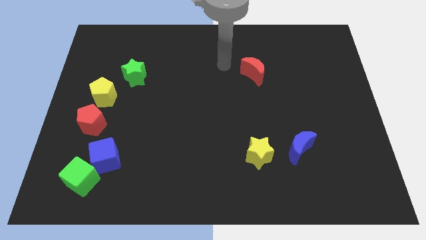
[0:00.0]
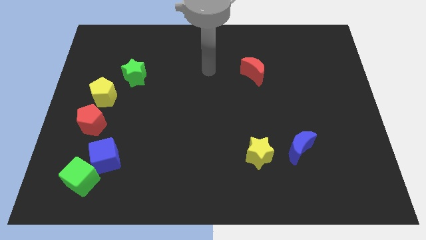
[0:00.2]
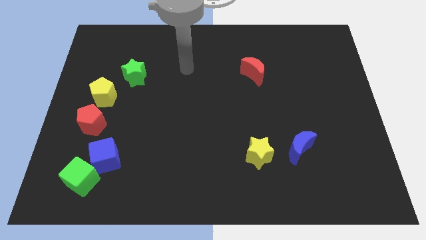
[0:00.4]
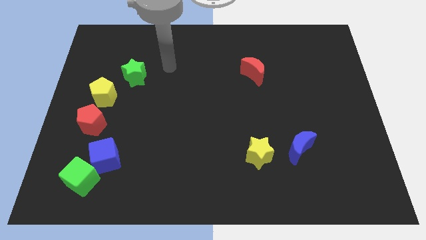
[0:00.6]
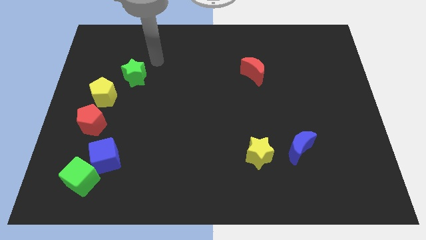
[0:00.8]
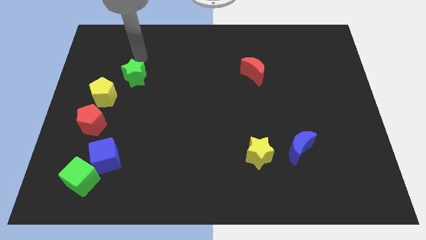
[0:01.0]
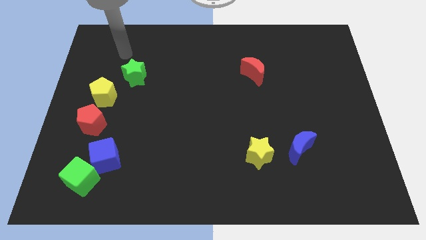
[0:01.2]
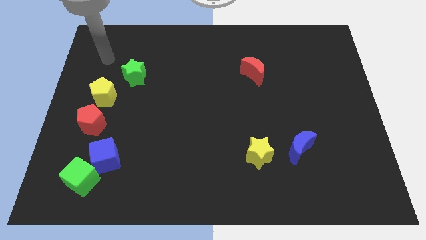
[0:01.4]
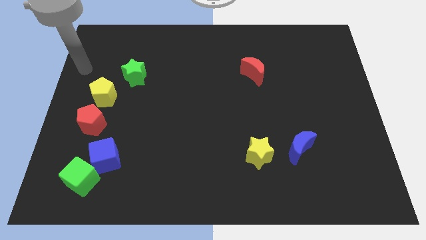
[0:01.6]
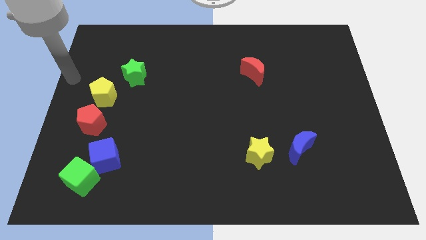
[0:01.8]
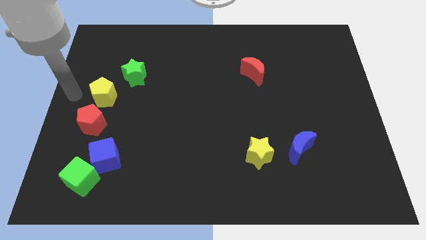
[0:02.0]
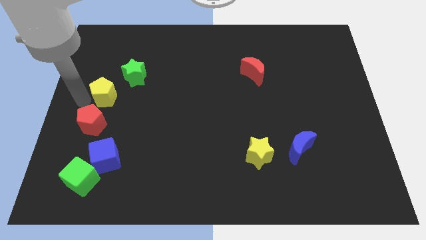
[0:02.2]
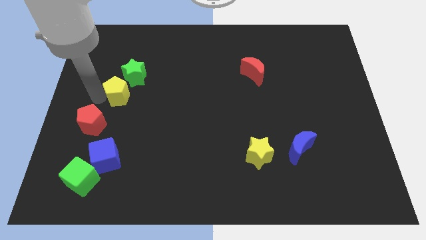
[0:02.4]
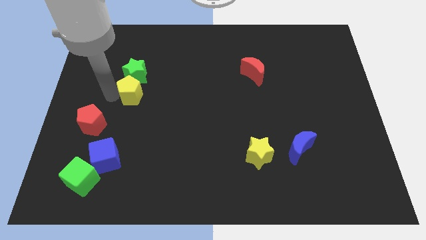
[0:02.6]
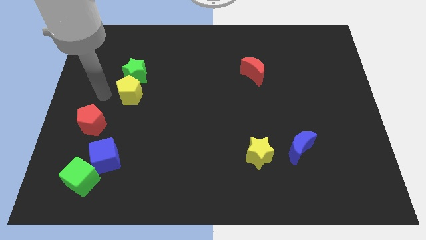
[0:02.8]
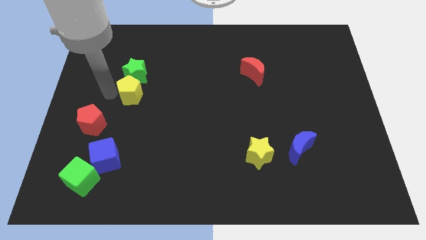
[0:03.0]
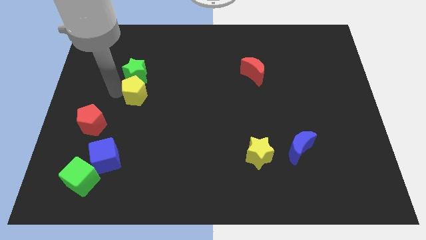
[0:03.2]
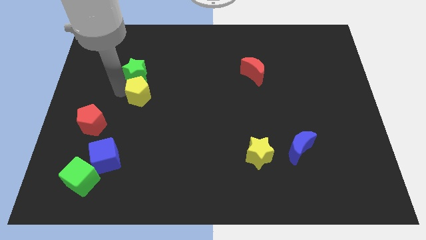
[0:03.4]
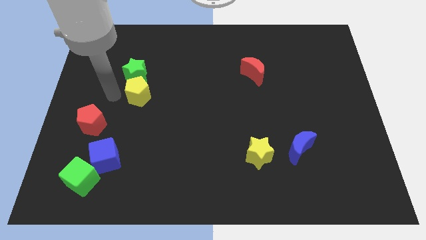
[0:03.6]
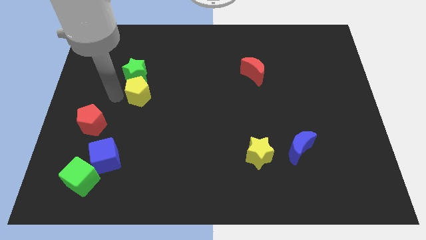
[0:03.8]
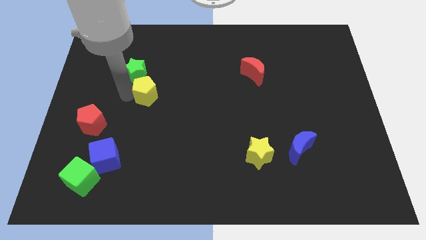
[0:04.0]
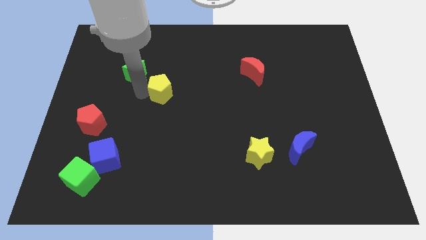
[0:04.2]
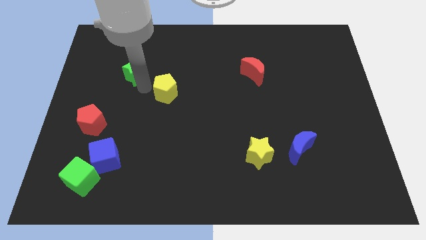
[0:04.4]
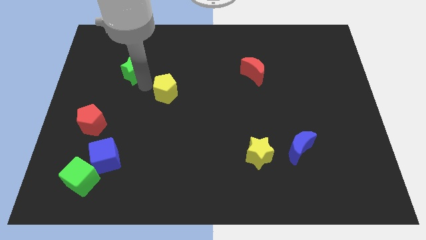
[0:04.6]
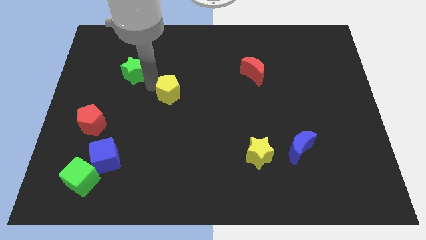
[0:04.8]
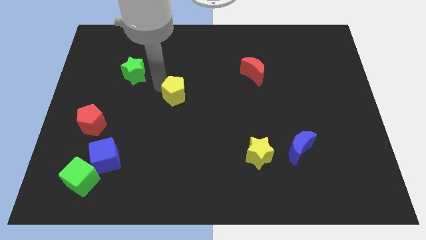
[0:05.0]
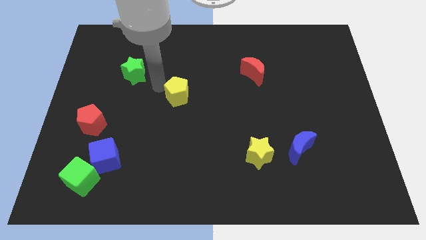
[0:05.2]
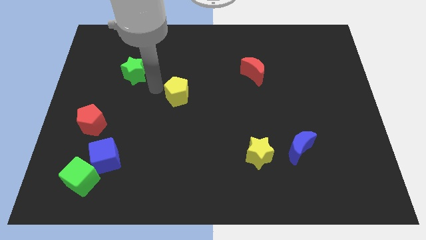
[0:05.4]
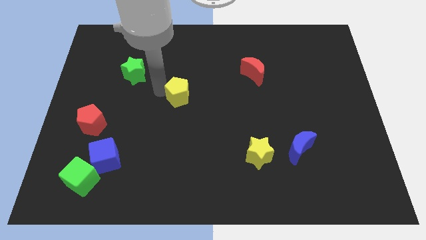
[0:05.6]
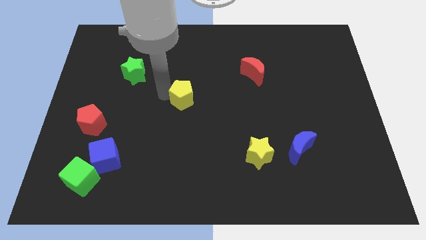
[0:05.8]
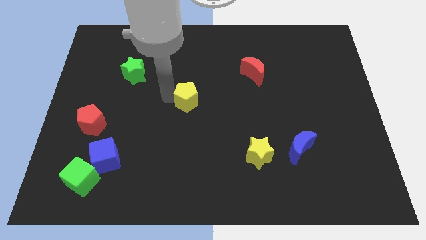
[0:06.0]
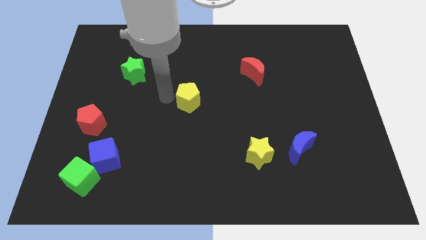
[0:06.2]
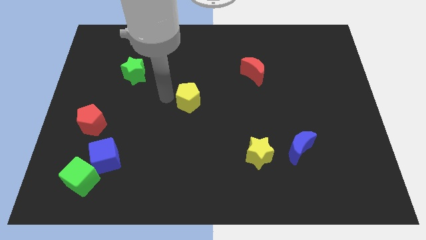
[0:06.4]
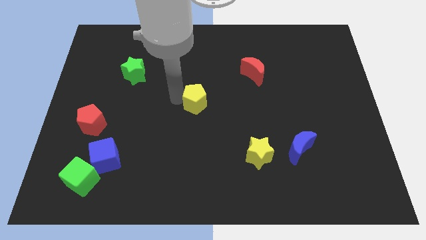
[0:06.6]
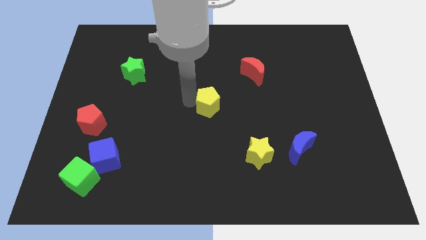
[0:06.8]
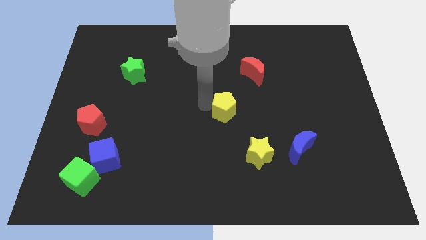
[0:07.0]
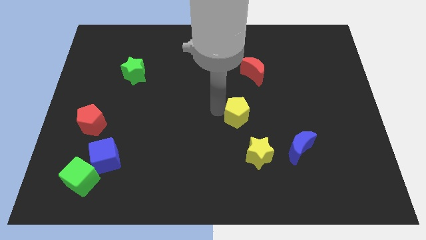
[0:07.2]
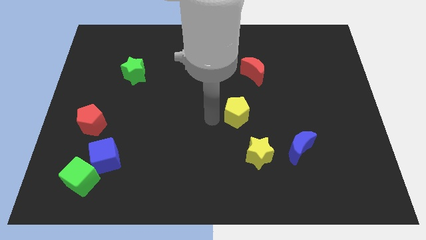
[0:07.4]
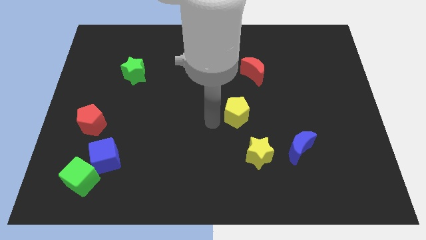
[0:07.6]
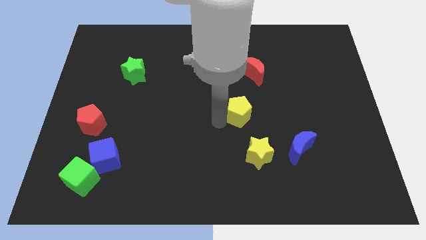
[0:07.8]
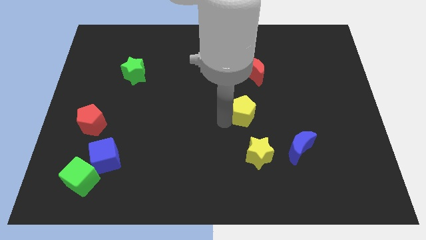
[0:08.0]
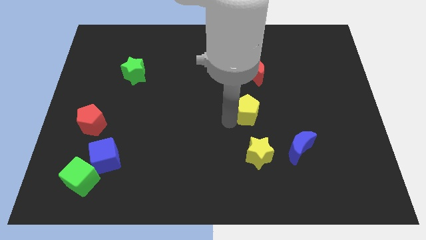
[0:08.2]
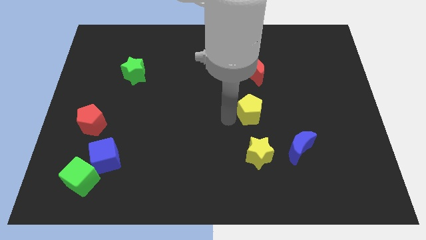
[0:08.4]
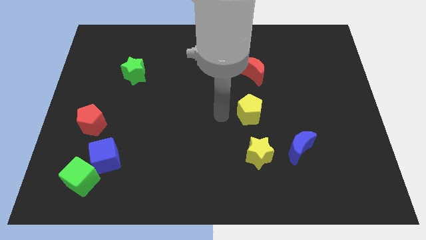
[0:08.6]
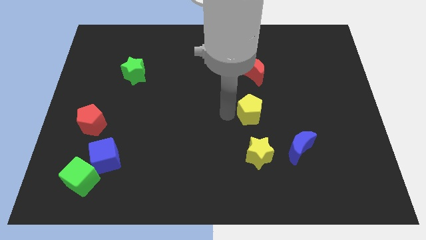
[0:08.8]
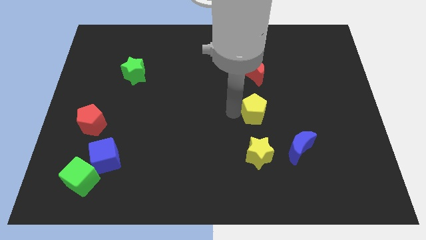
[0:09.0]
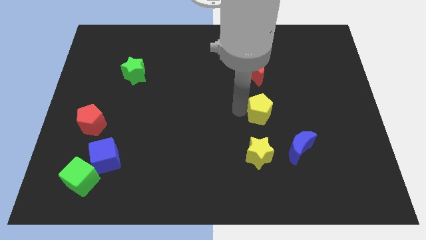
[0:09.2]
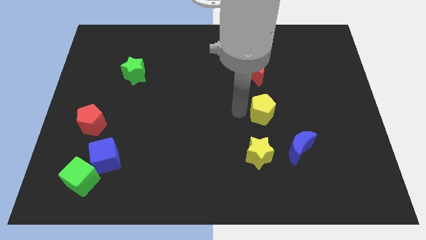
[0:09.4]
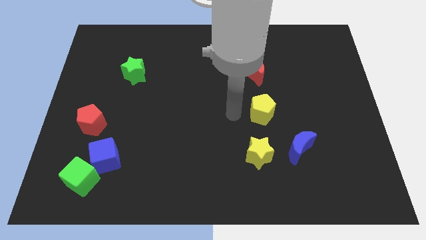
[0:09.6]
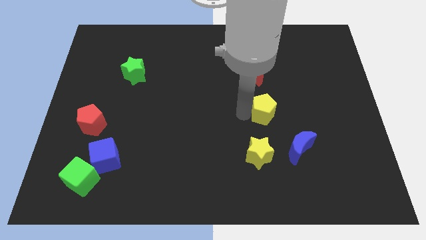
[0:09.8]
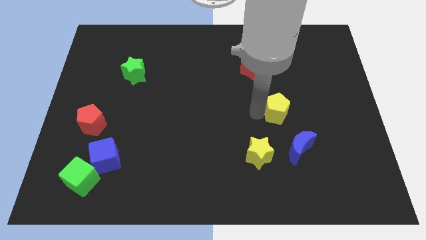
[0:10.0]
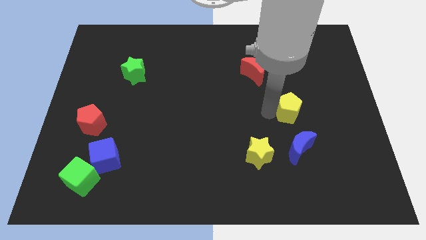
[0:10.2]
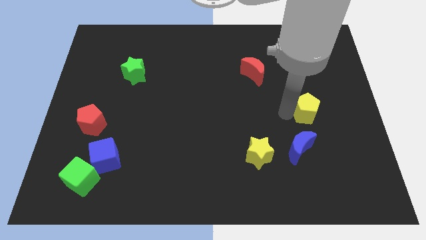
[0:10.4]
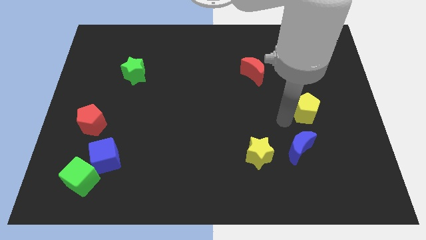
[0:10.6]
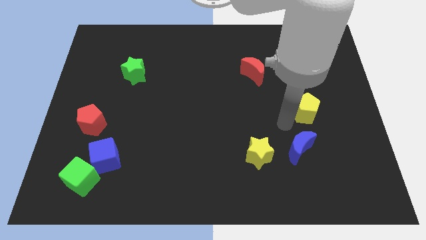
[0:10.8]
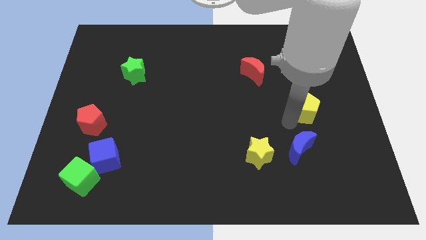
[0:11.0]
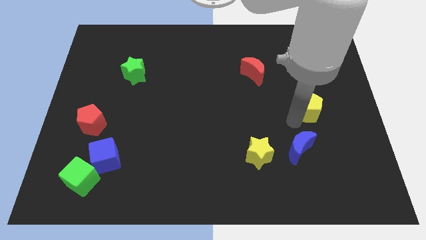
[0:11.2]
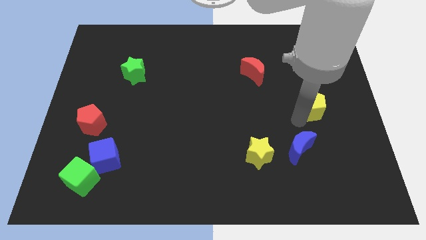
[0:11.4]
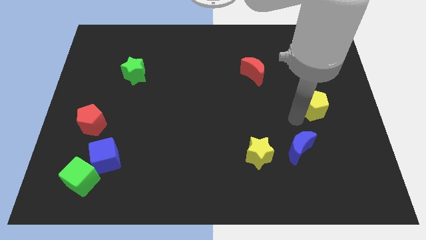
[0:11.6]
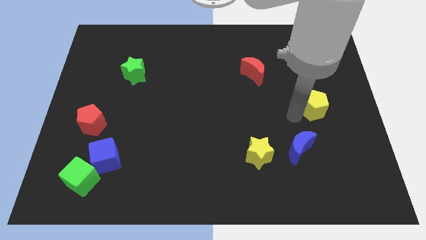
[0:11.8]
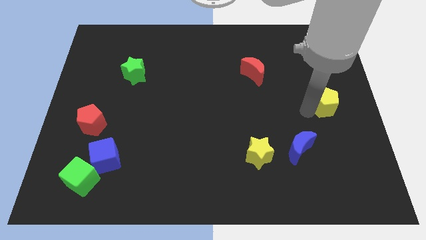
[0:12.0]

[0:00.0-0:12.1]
put the yellow pentagon to the right side of the board
